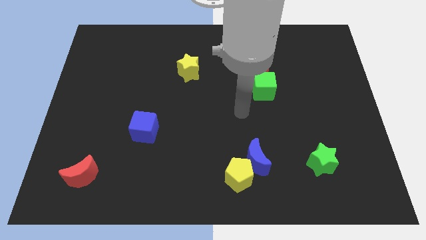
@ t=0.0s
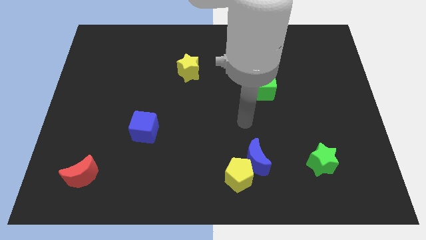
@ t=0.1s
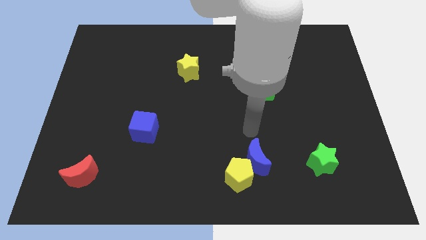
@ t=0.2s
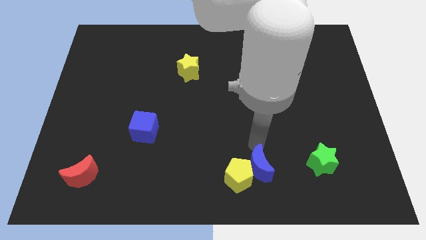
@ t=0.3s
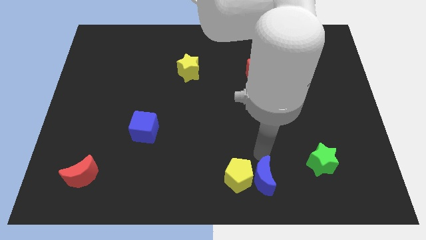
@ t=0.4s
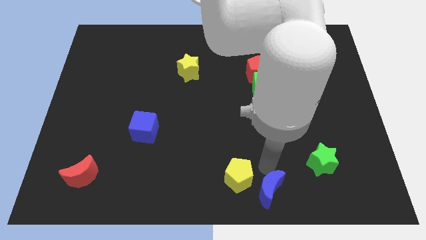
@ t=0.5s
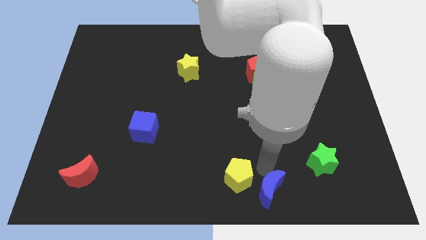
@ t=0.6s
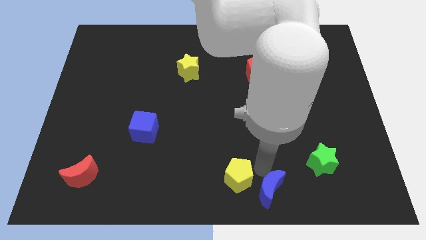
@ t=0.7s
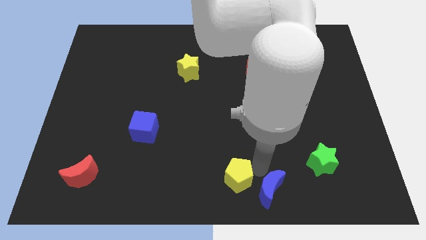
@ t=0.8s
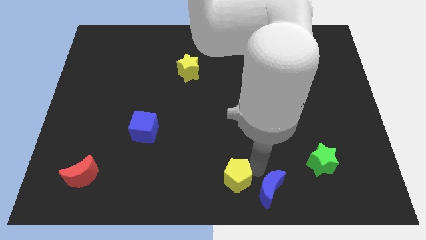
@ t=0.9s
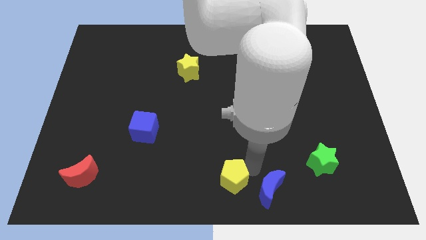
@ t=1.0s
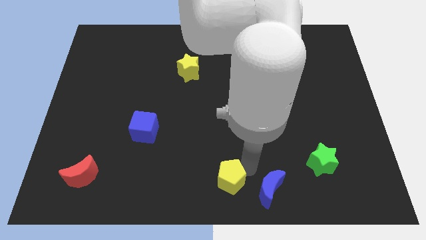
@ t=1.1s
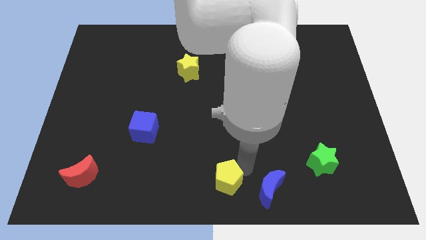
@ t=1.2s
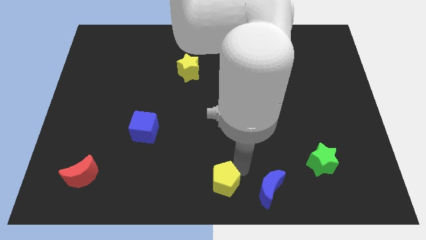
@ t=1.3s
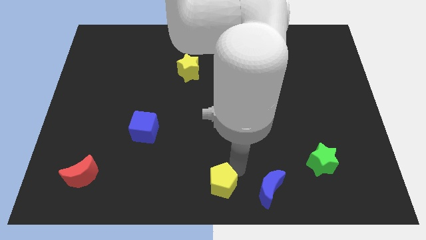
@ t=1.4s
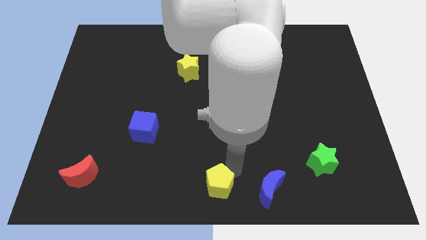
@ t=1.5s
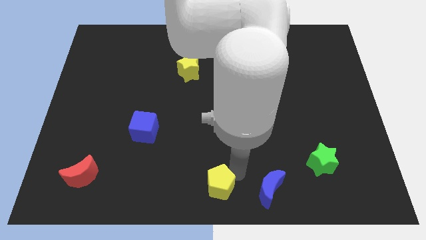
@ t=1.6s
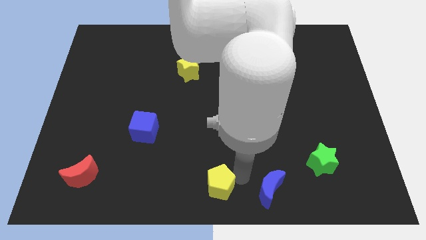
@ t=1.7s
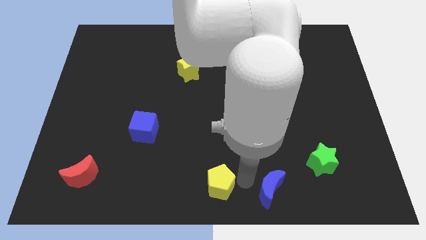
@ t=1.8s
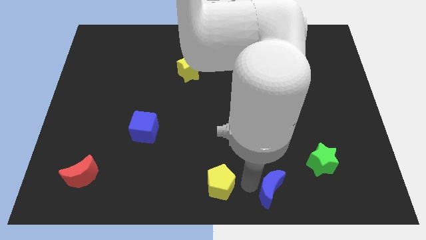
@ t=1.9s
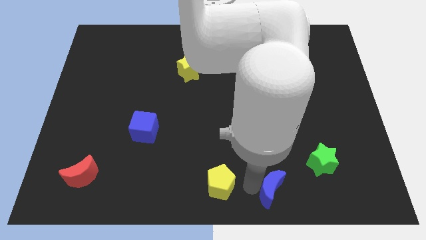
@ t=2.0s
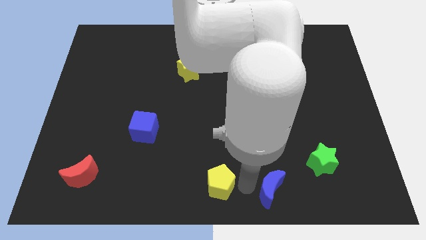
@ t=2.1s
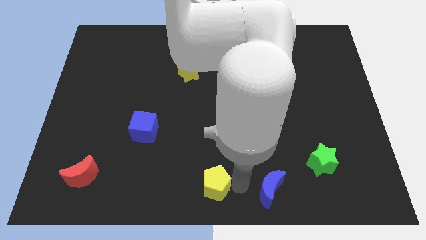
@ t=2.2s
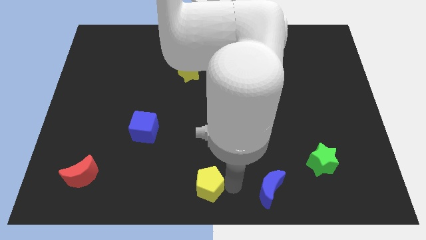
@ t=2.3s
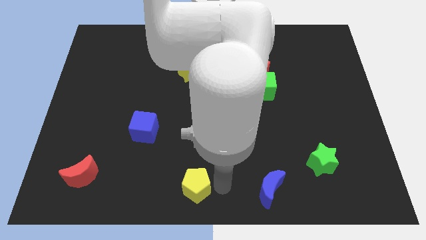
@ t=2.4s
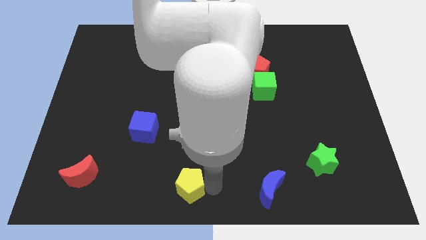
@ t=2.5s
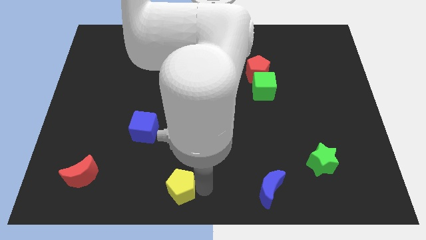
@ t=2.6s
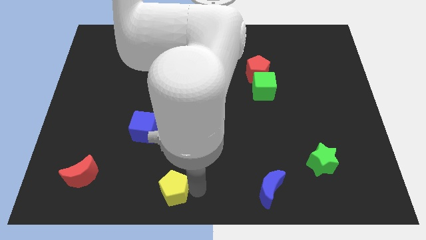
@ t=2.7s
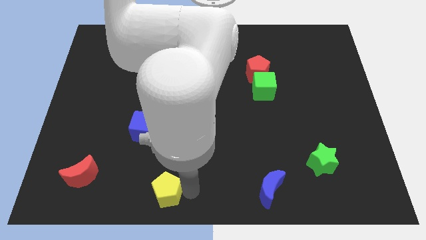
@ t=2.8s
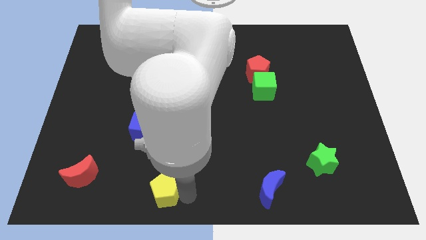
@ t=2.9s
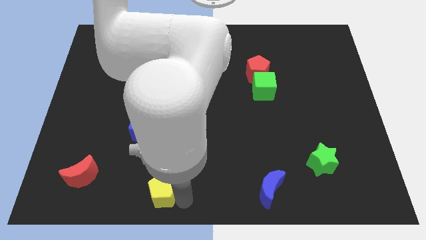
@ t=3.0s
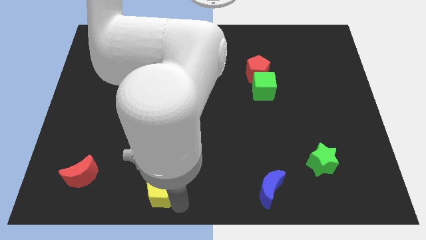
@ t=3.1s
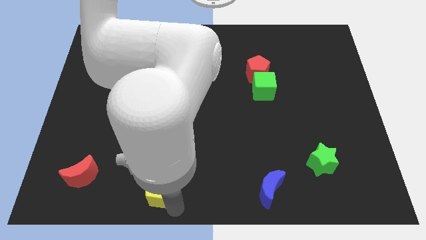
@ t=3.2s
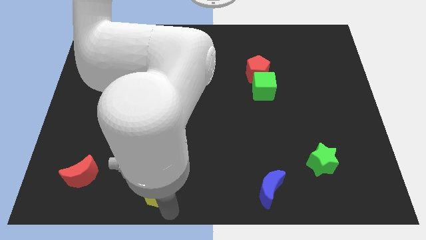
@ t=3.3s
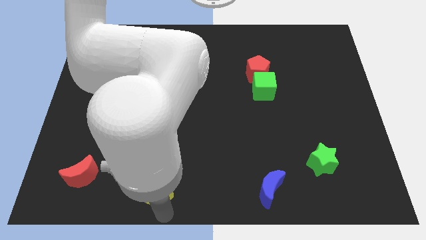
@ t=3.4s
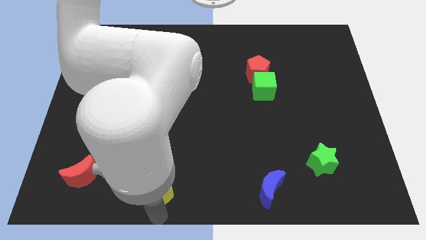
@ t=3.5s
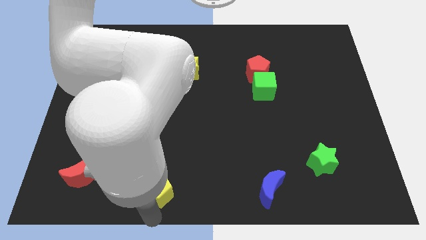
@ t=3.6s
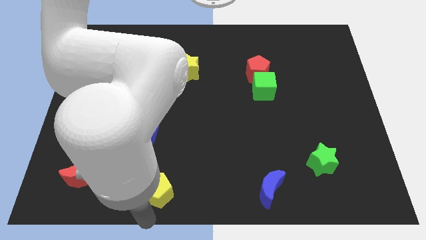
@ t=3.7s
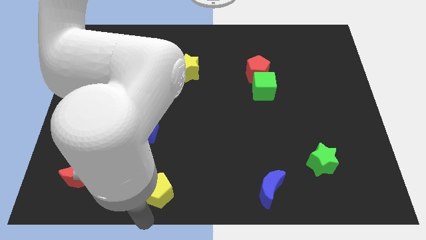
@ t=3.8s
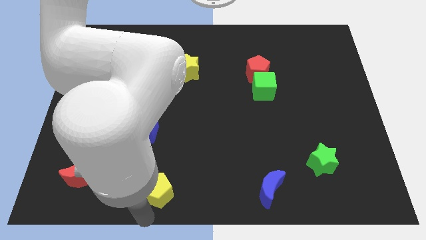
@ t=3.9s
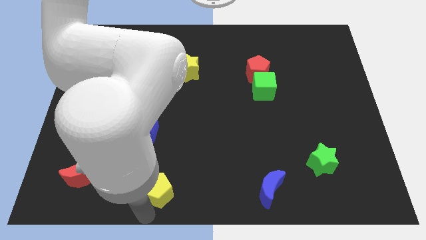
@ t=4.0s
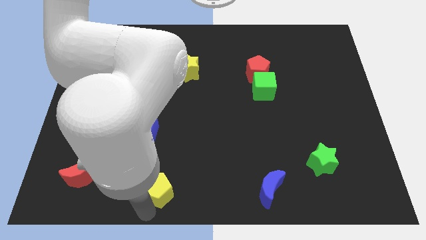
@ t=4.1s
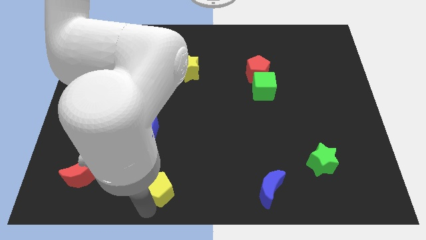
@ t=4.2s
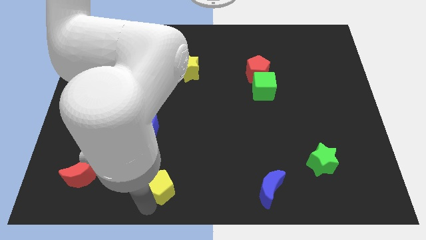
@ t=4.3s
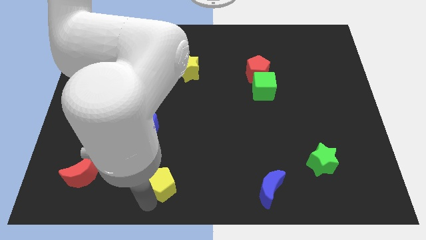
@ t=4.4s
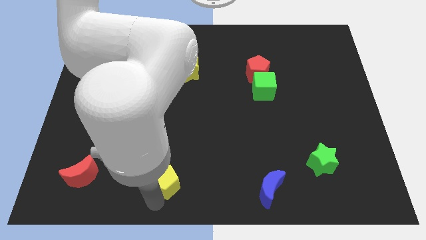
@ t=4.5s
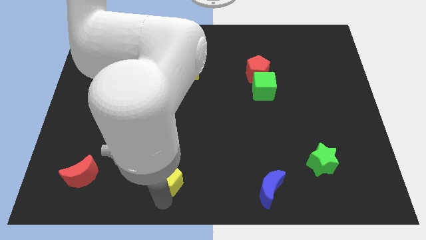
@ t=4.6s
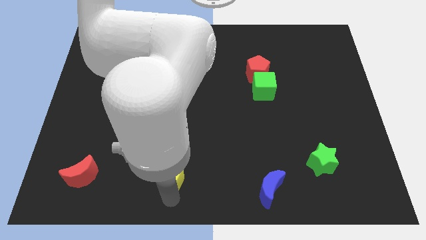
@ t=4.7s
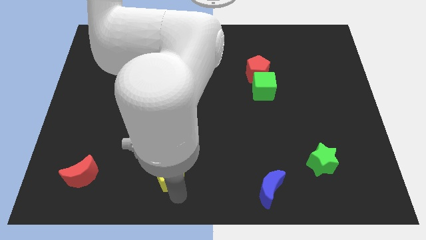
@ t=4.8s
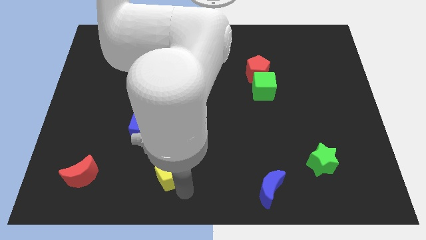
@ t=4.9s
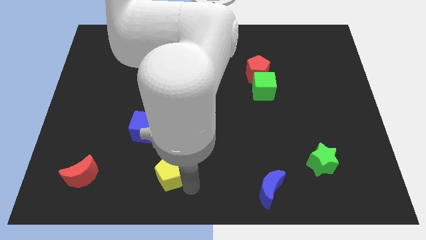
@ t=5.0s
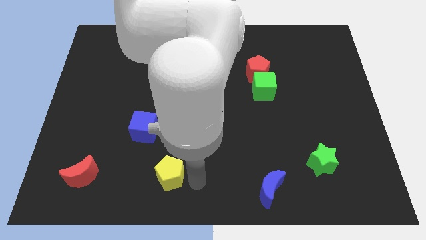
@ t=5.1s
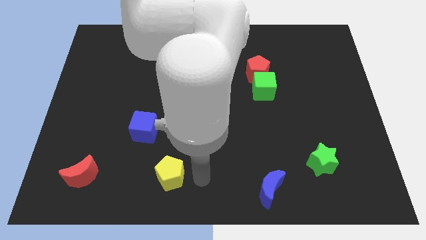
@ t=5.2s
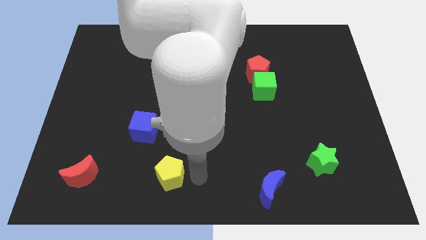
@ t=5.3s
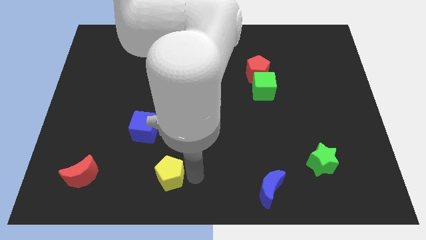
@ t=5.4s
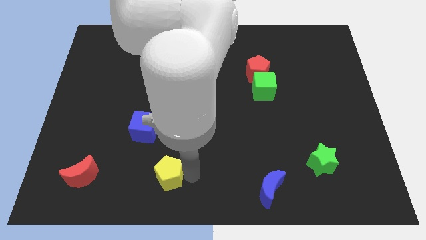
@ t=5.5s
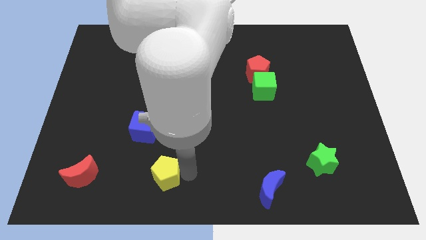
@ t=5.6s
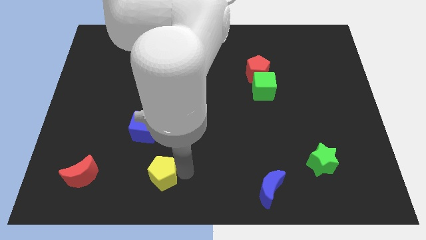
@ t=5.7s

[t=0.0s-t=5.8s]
move the yellow pentagon below the blue cube

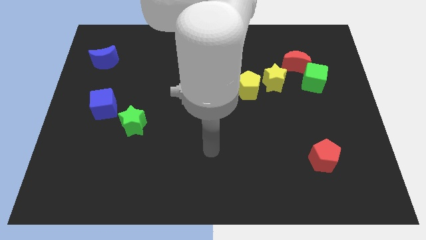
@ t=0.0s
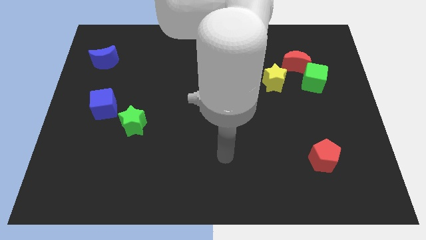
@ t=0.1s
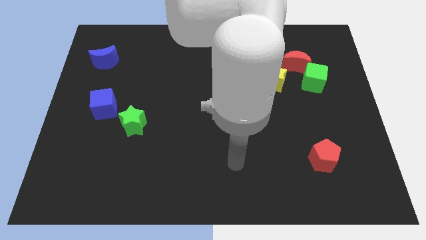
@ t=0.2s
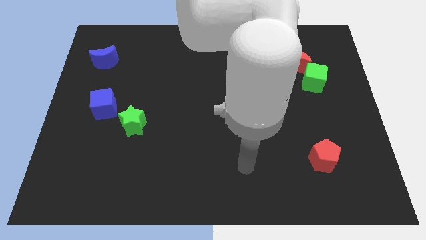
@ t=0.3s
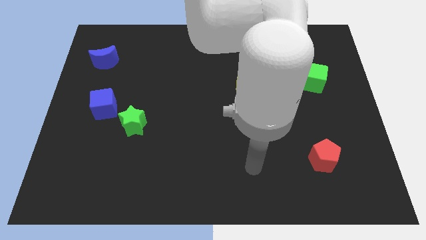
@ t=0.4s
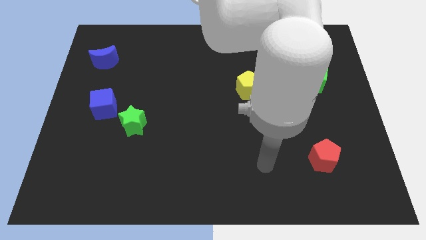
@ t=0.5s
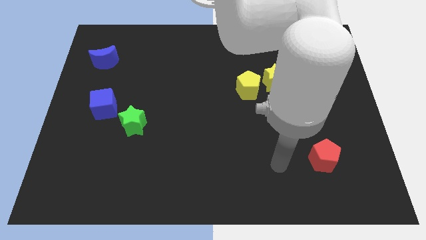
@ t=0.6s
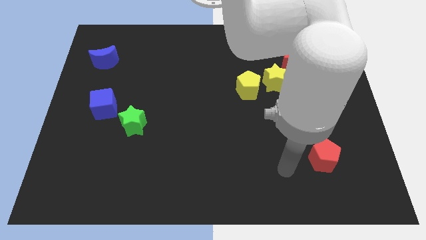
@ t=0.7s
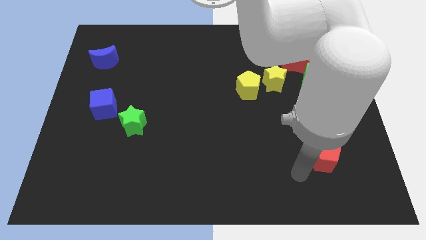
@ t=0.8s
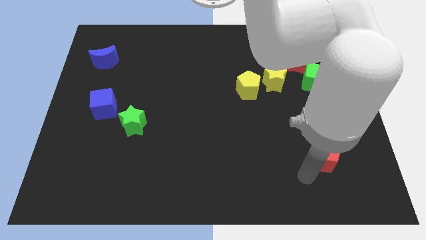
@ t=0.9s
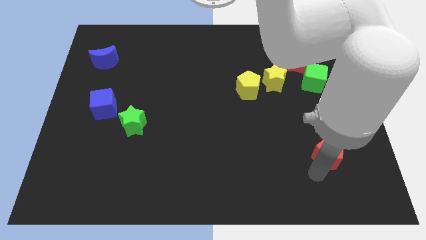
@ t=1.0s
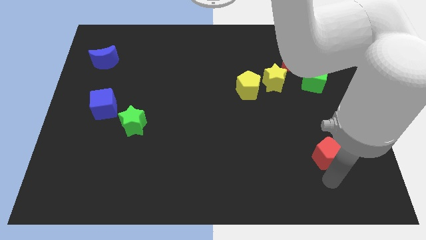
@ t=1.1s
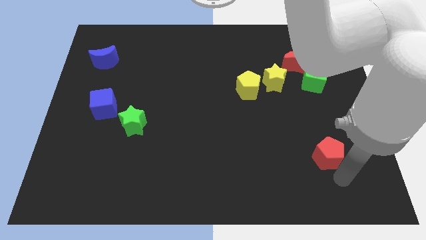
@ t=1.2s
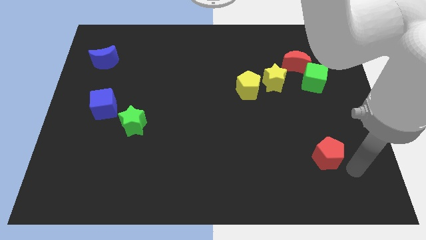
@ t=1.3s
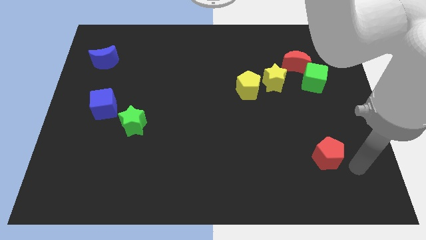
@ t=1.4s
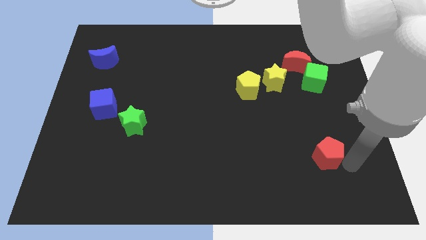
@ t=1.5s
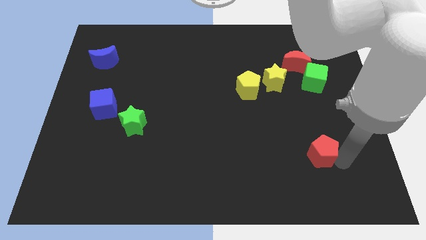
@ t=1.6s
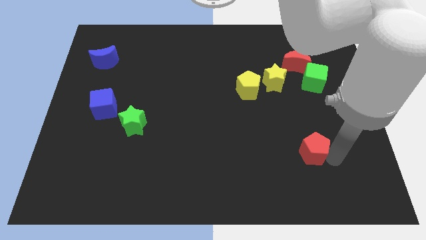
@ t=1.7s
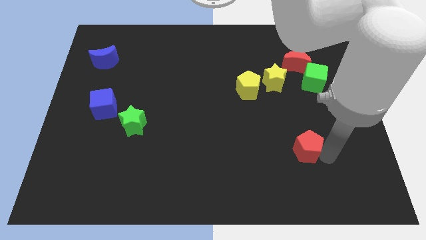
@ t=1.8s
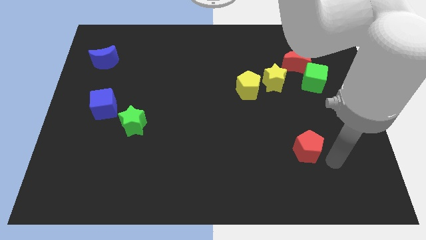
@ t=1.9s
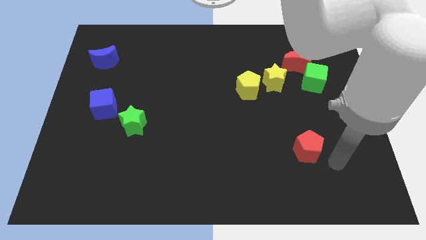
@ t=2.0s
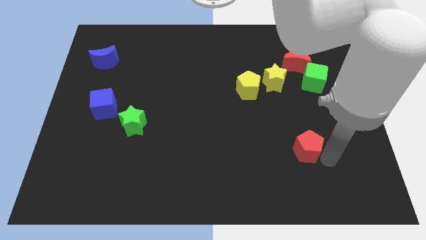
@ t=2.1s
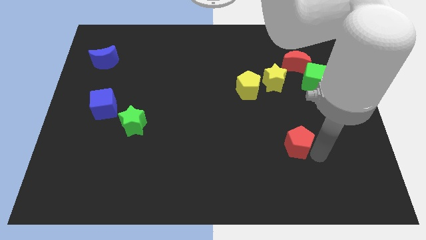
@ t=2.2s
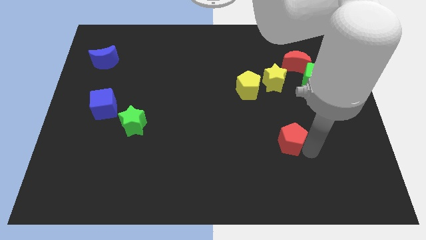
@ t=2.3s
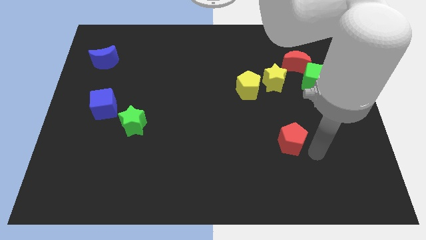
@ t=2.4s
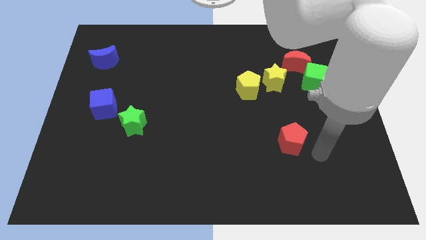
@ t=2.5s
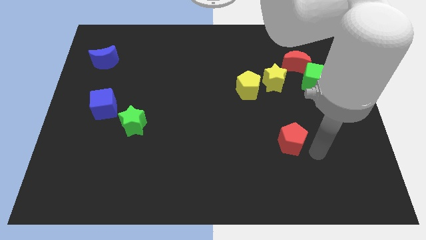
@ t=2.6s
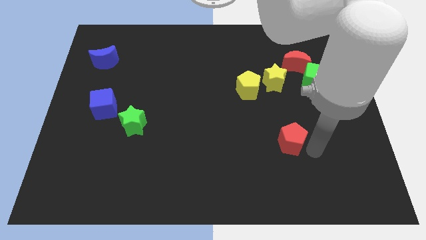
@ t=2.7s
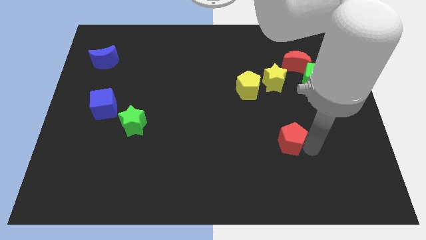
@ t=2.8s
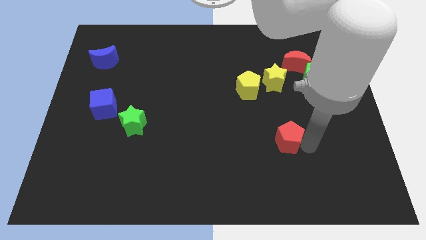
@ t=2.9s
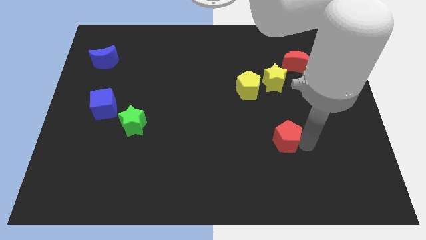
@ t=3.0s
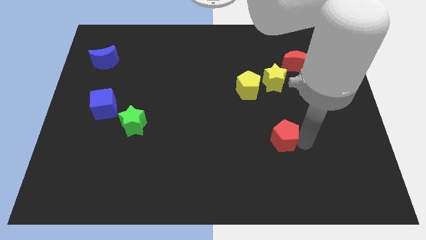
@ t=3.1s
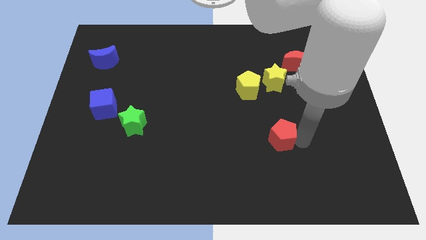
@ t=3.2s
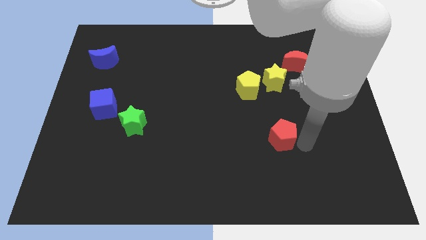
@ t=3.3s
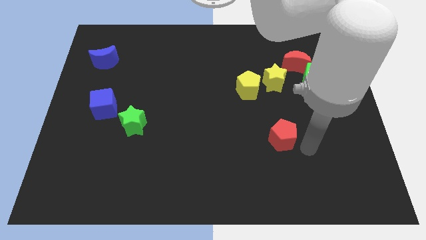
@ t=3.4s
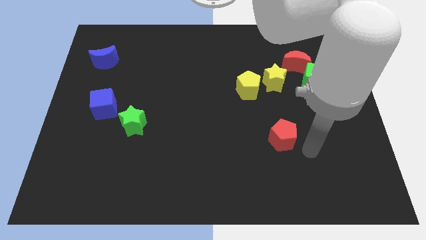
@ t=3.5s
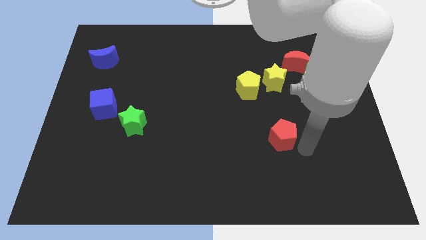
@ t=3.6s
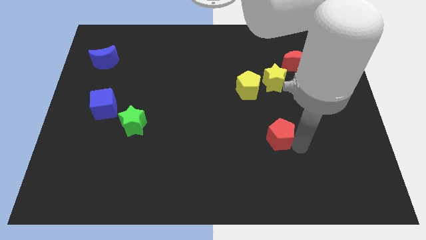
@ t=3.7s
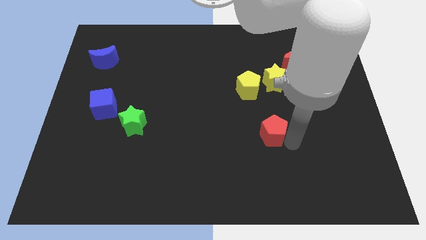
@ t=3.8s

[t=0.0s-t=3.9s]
move the red pentagon below the yellow pentagon
